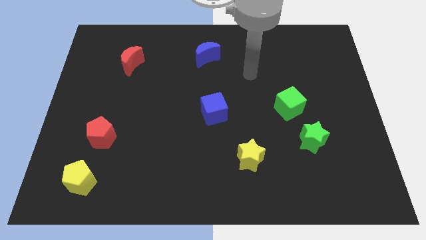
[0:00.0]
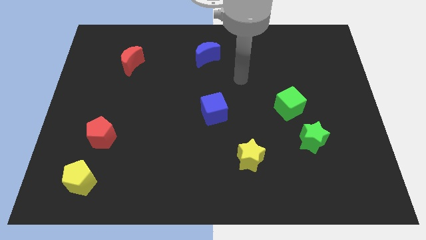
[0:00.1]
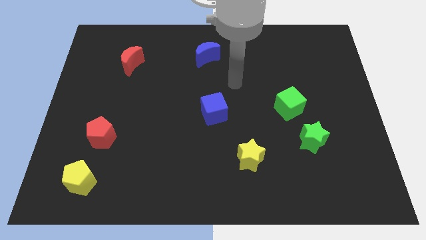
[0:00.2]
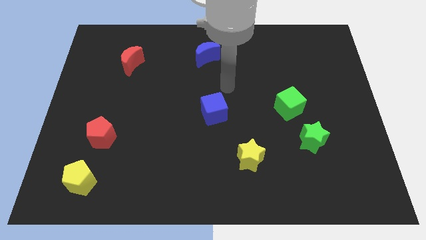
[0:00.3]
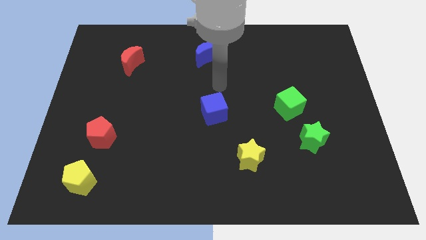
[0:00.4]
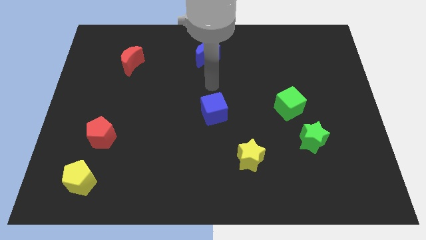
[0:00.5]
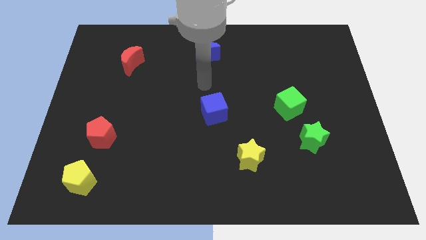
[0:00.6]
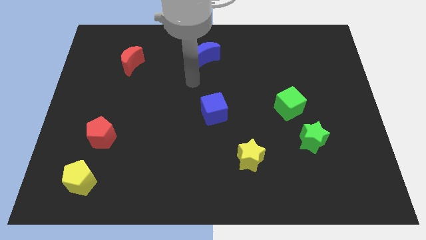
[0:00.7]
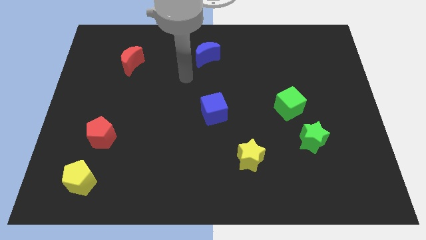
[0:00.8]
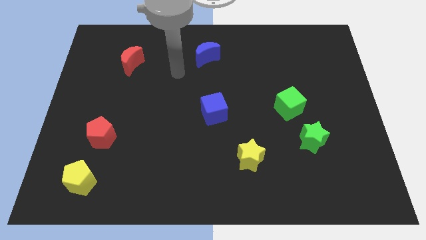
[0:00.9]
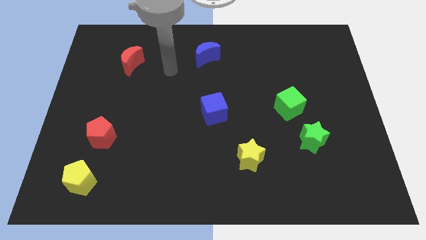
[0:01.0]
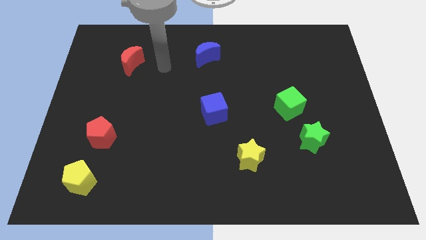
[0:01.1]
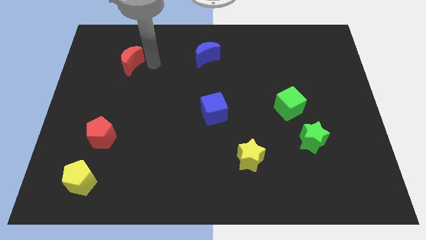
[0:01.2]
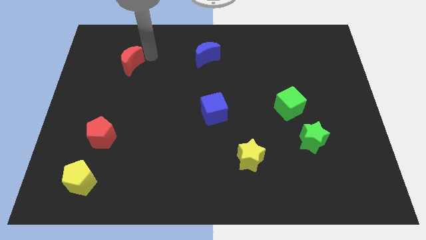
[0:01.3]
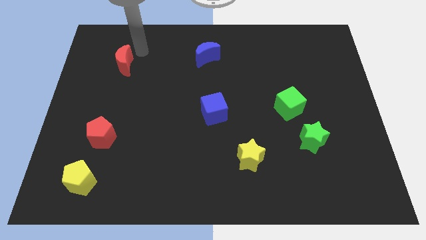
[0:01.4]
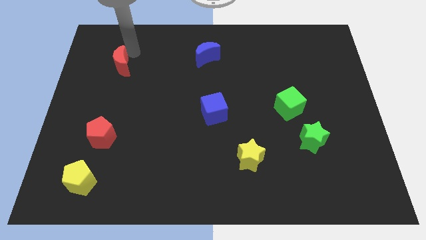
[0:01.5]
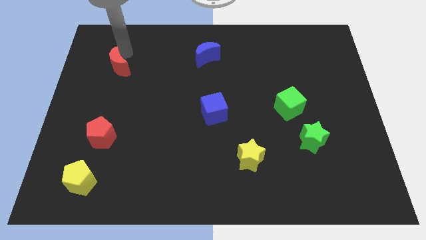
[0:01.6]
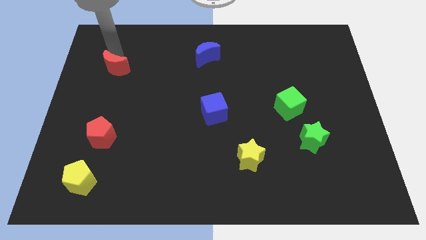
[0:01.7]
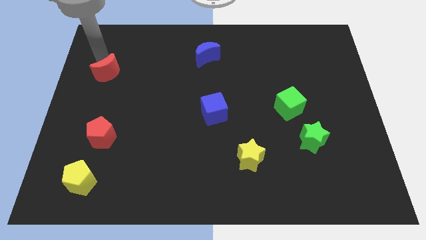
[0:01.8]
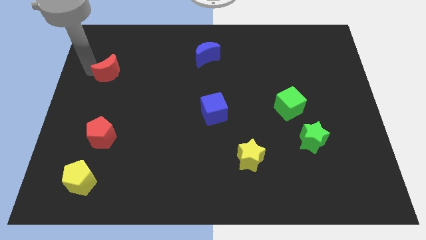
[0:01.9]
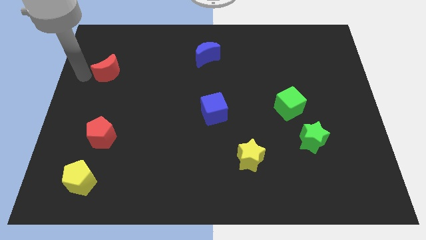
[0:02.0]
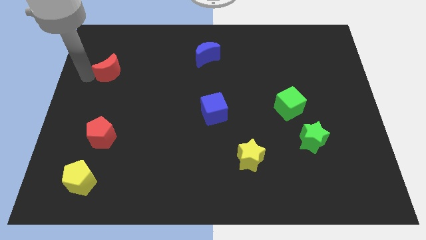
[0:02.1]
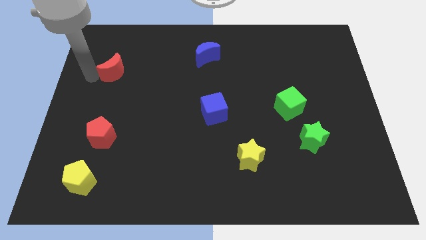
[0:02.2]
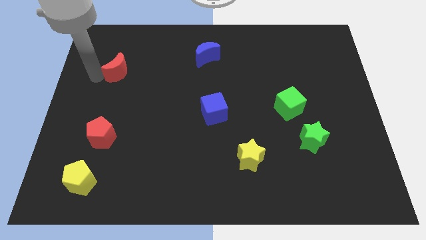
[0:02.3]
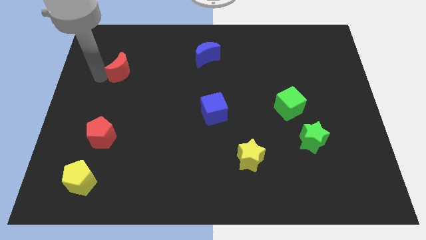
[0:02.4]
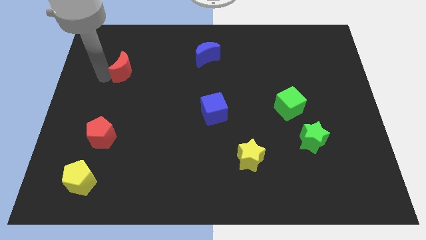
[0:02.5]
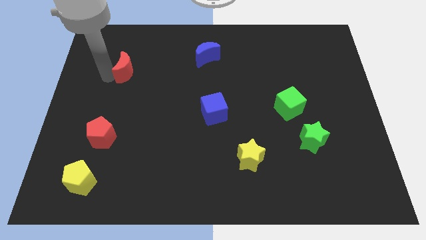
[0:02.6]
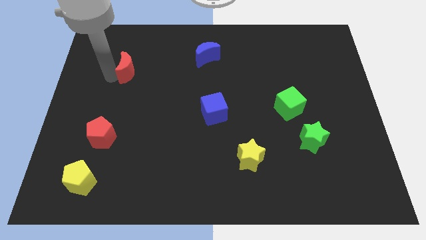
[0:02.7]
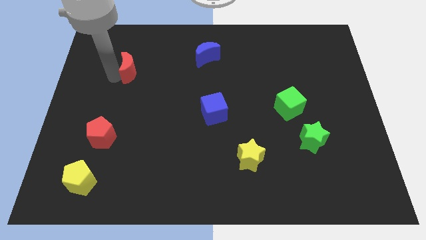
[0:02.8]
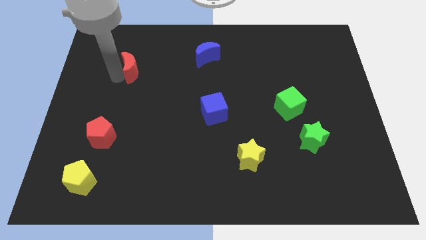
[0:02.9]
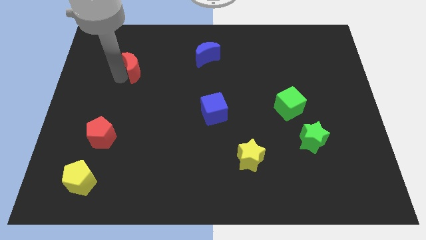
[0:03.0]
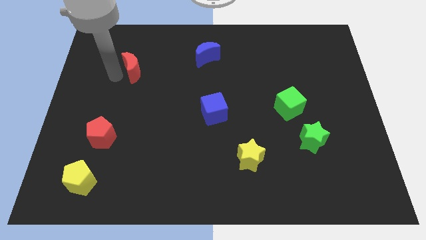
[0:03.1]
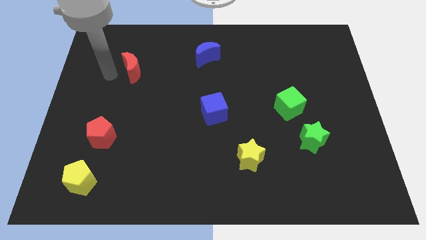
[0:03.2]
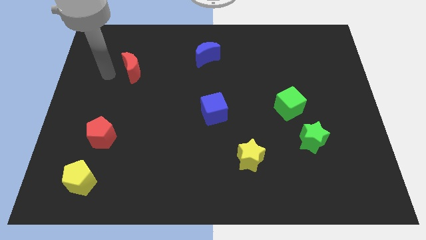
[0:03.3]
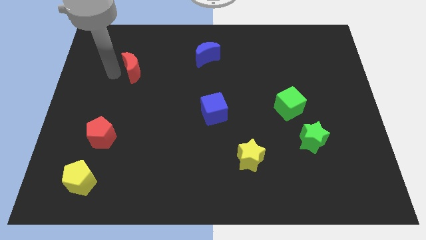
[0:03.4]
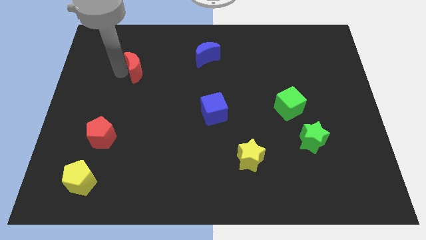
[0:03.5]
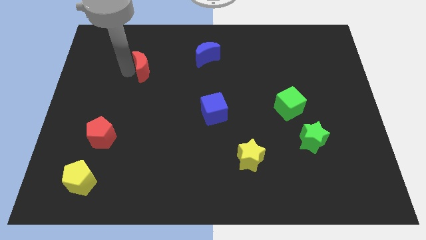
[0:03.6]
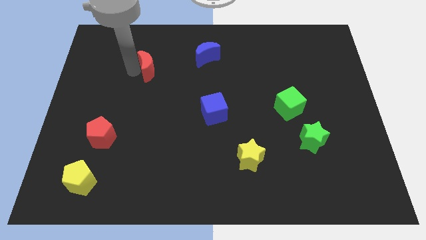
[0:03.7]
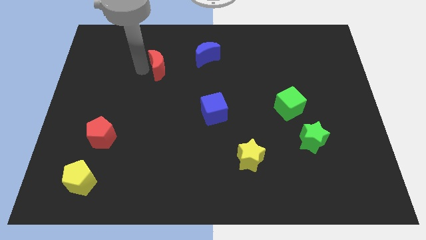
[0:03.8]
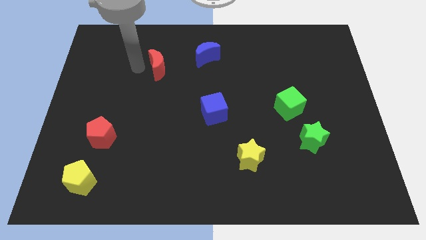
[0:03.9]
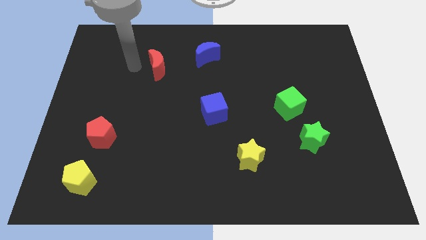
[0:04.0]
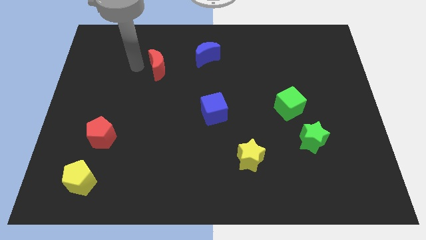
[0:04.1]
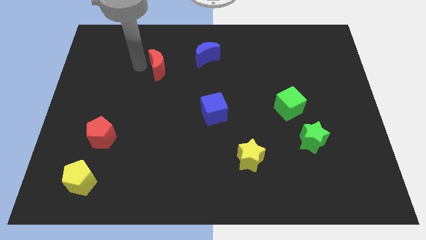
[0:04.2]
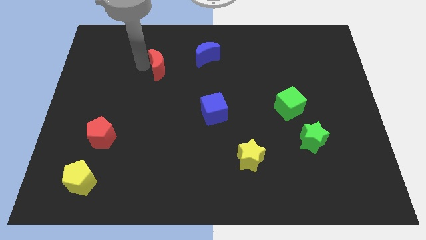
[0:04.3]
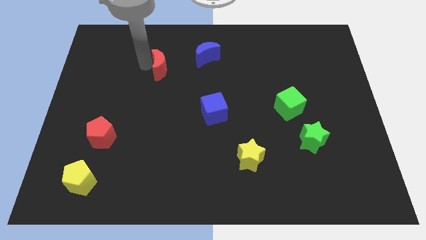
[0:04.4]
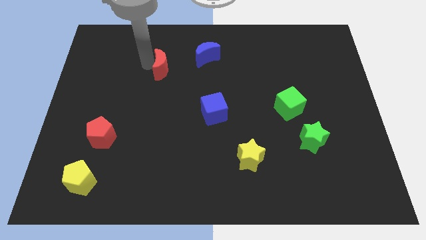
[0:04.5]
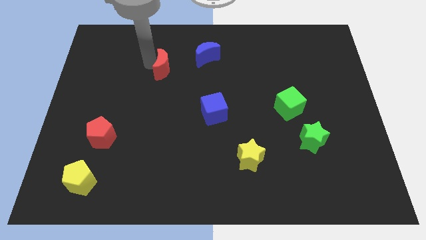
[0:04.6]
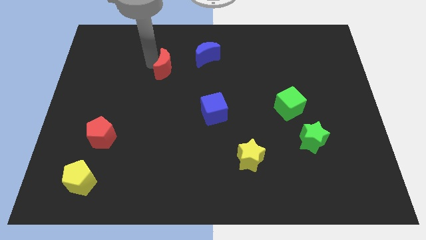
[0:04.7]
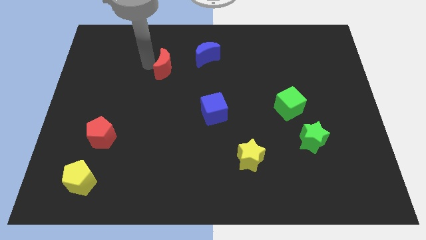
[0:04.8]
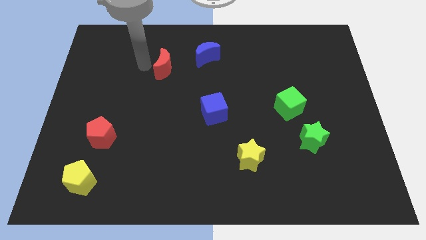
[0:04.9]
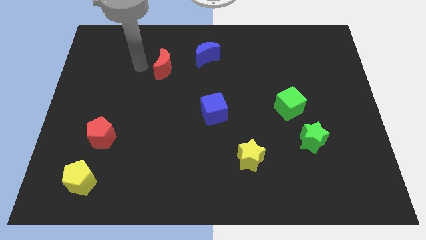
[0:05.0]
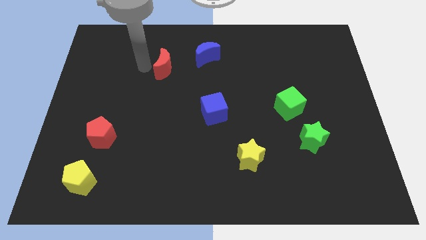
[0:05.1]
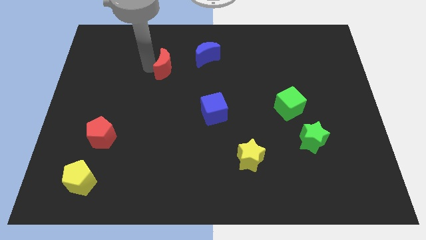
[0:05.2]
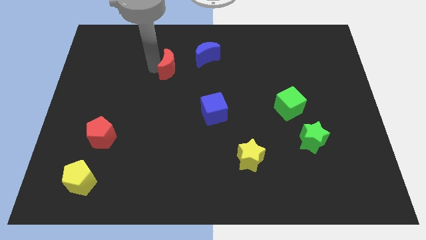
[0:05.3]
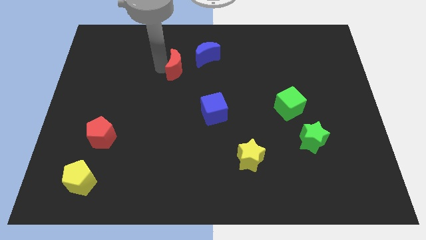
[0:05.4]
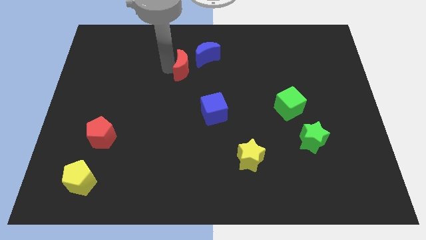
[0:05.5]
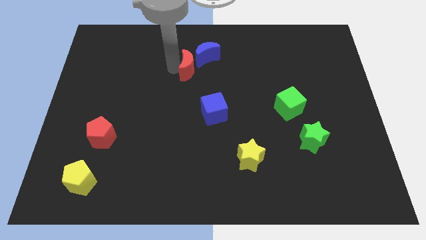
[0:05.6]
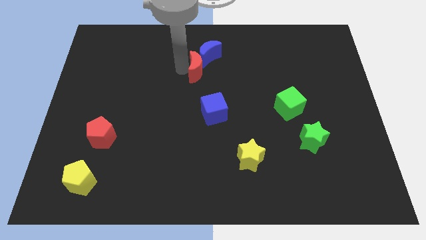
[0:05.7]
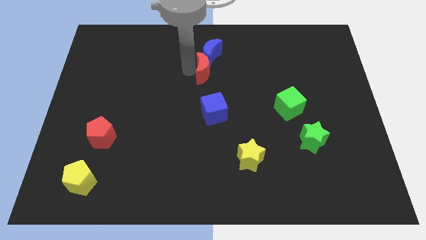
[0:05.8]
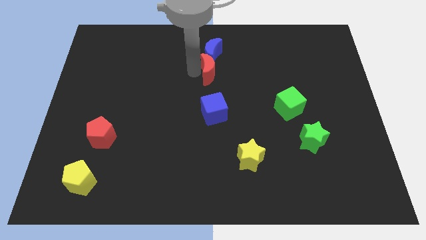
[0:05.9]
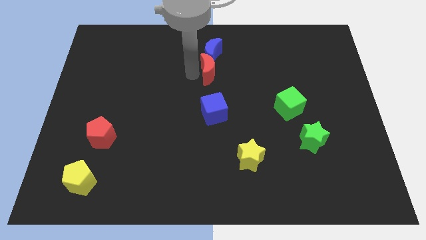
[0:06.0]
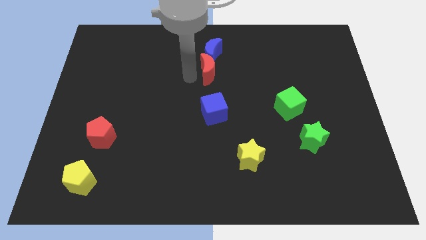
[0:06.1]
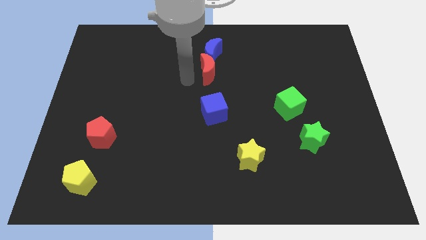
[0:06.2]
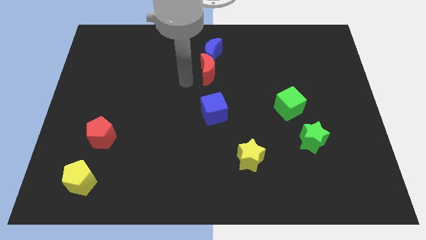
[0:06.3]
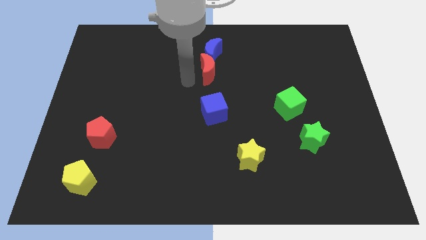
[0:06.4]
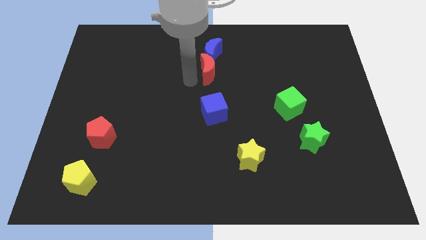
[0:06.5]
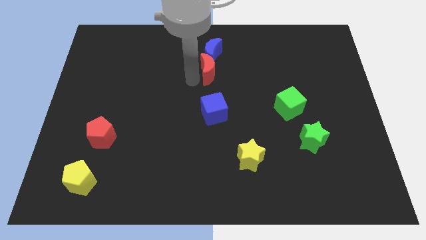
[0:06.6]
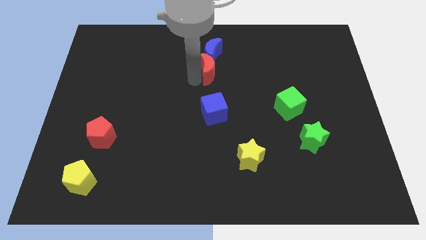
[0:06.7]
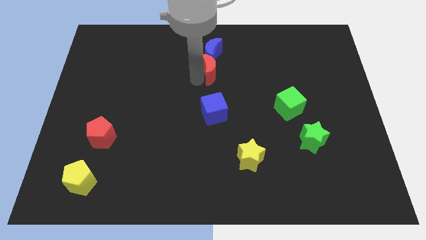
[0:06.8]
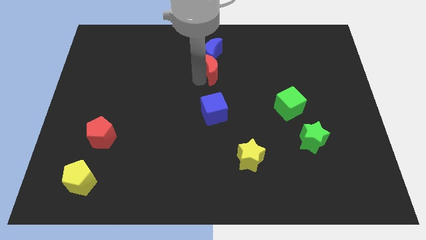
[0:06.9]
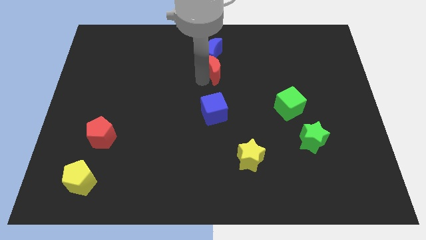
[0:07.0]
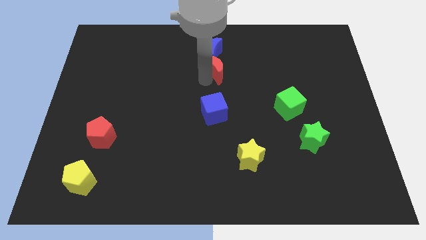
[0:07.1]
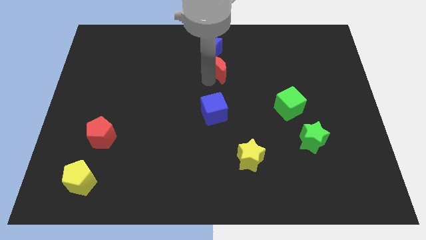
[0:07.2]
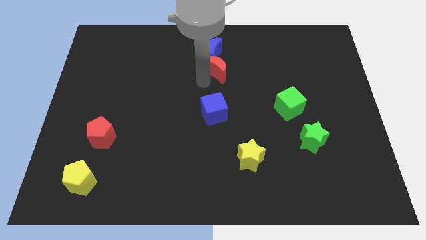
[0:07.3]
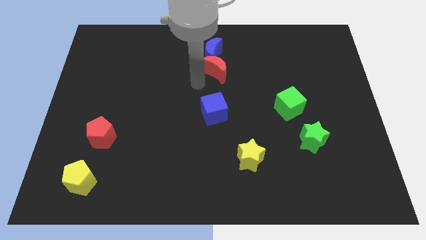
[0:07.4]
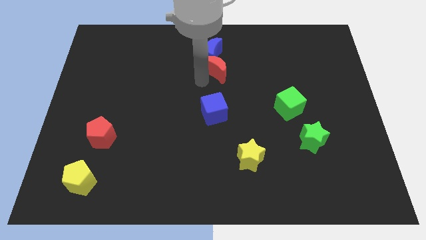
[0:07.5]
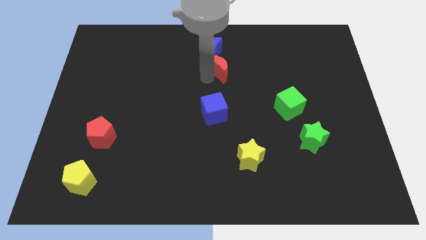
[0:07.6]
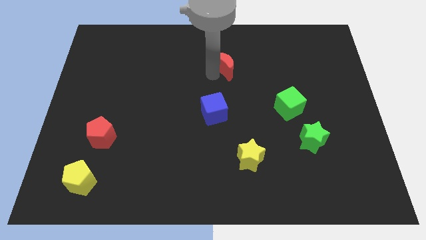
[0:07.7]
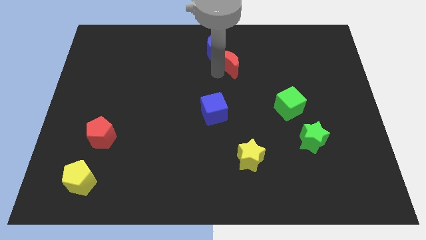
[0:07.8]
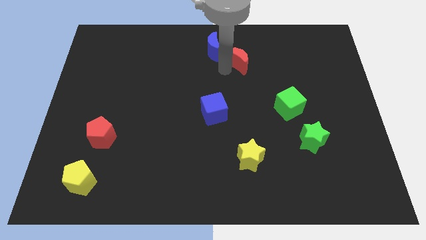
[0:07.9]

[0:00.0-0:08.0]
slide the red moon to the right side of the blue moon
